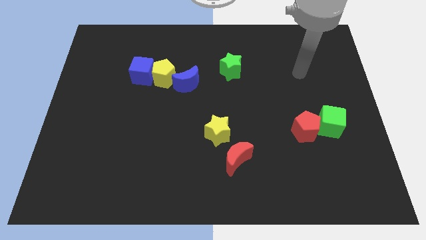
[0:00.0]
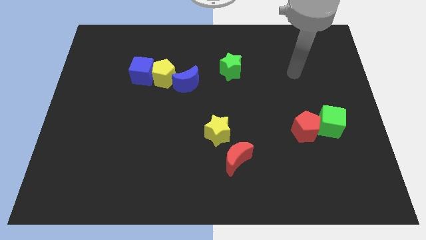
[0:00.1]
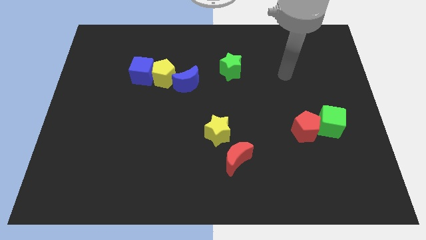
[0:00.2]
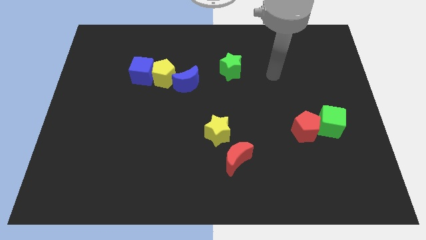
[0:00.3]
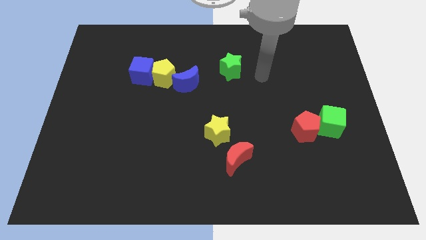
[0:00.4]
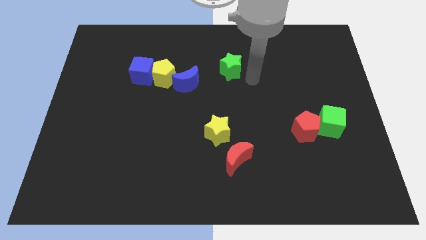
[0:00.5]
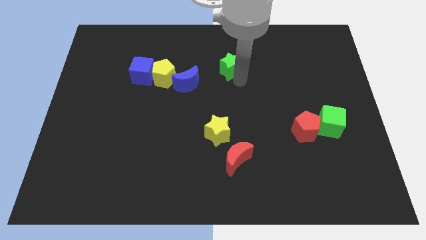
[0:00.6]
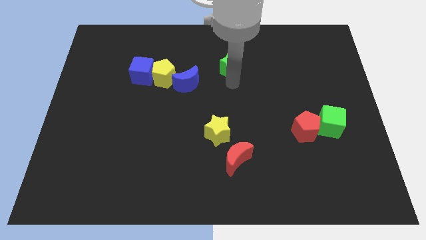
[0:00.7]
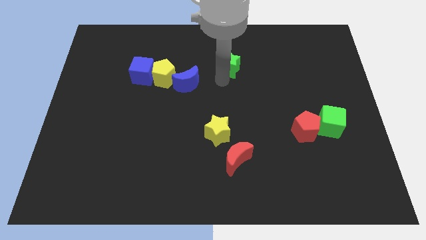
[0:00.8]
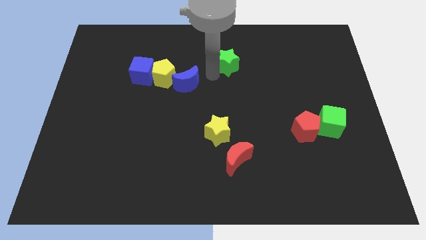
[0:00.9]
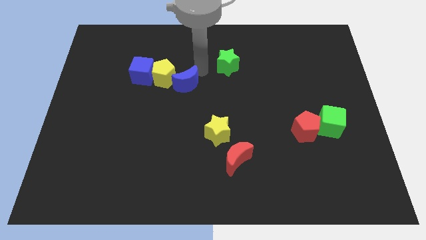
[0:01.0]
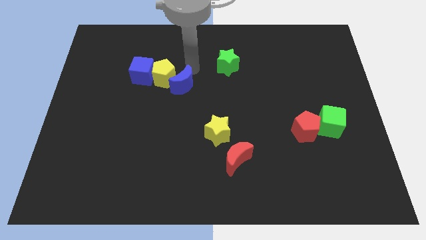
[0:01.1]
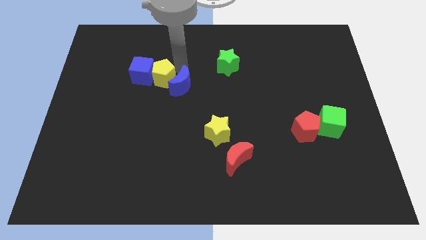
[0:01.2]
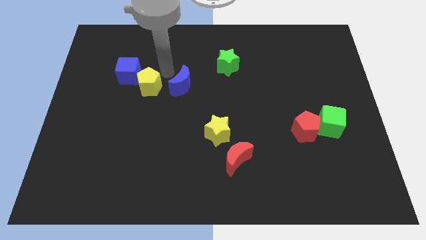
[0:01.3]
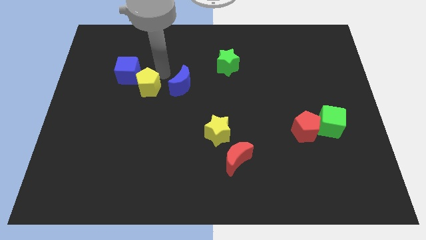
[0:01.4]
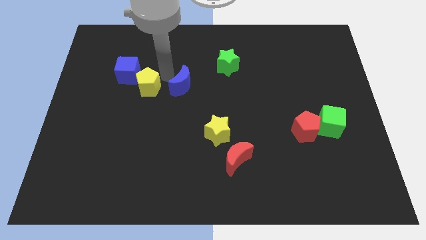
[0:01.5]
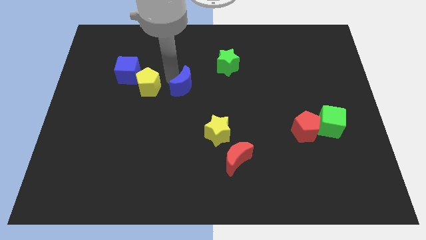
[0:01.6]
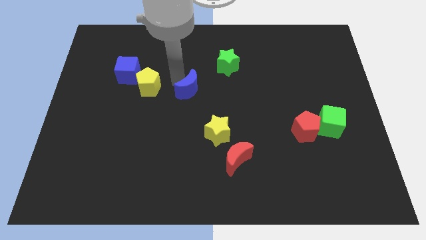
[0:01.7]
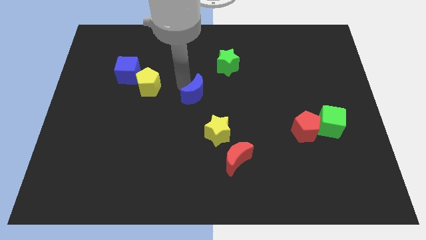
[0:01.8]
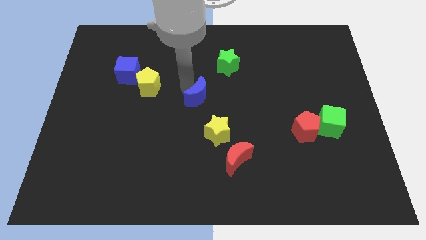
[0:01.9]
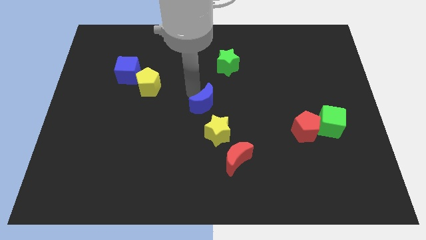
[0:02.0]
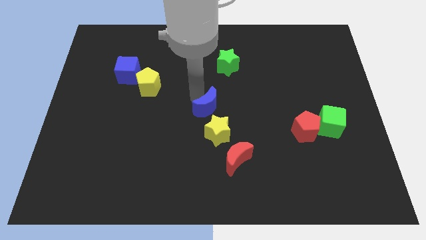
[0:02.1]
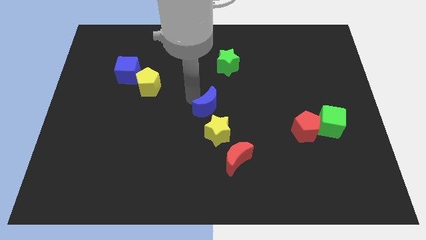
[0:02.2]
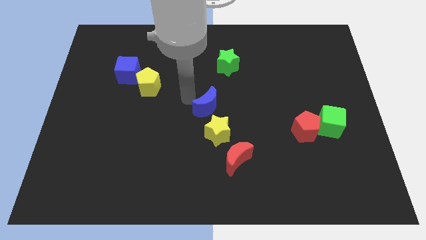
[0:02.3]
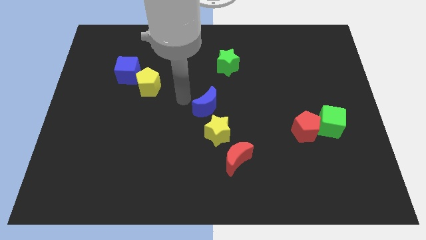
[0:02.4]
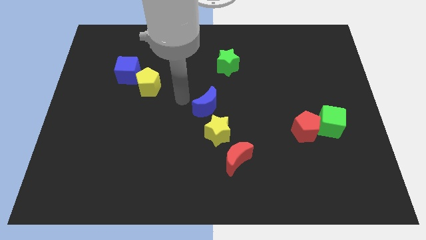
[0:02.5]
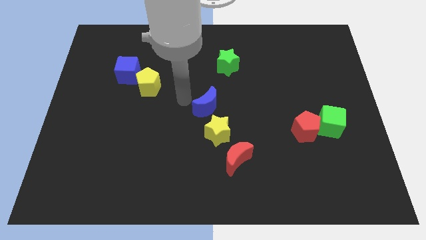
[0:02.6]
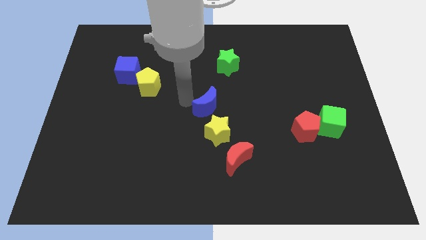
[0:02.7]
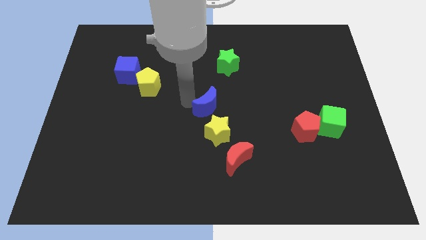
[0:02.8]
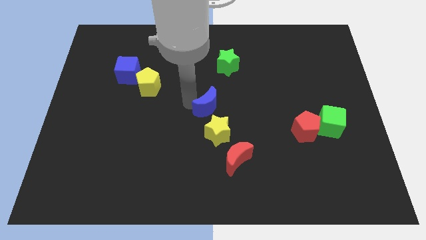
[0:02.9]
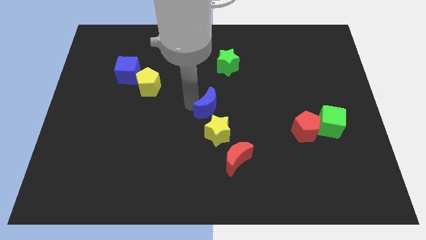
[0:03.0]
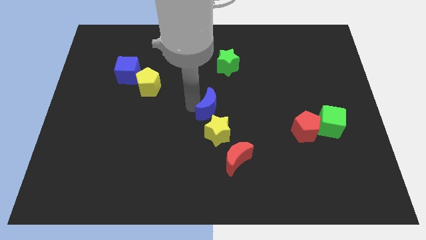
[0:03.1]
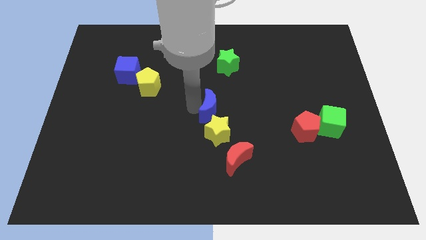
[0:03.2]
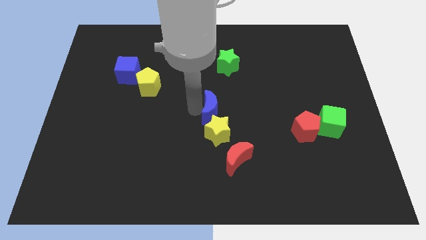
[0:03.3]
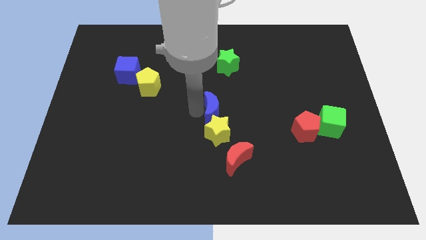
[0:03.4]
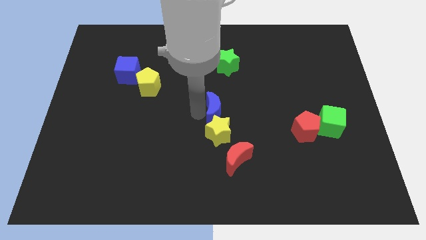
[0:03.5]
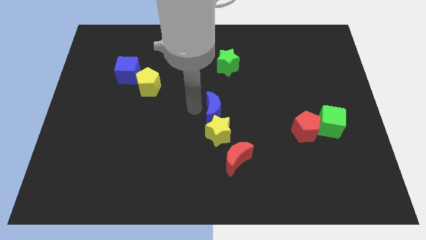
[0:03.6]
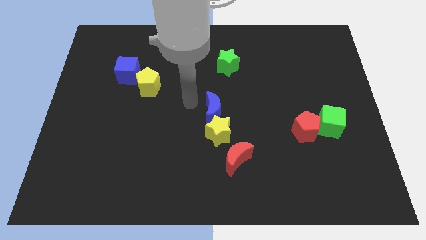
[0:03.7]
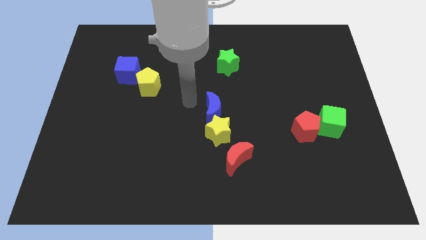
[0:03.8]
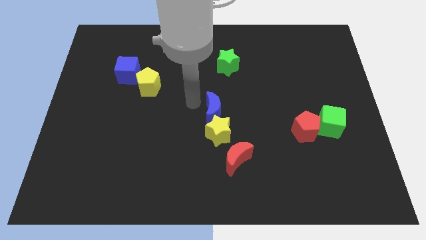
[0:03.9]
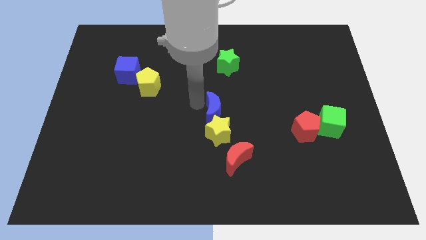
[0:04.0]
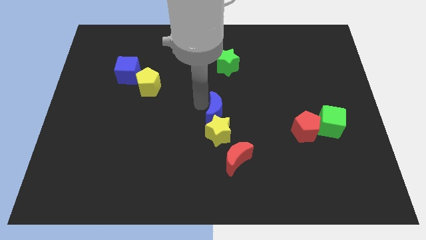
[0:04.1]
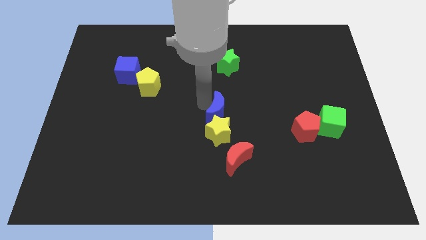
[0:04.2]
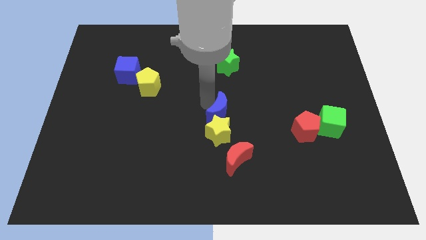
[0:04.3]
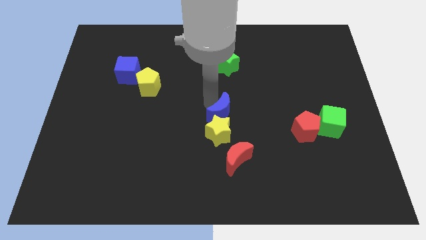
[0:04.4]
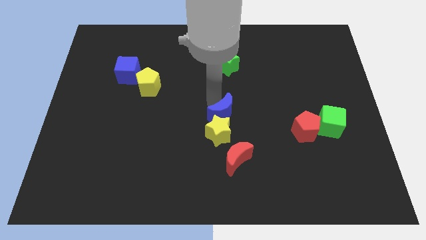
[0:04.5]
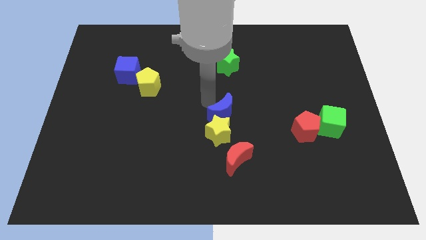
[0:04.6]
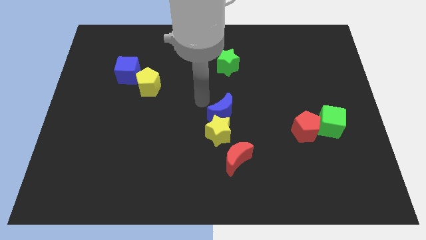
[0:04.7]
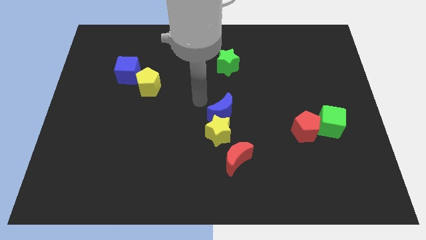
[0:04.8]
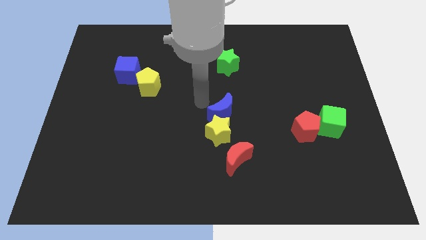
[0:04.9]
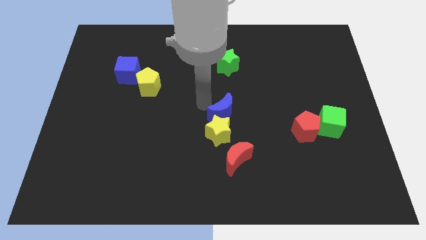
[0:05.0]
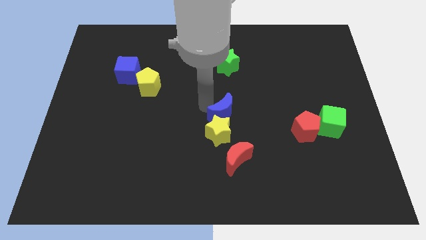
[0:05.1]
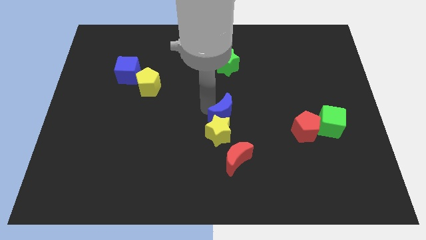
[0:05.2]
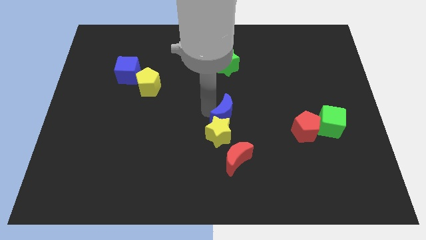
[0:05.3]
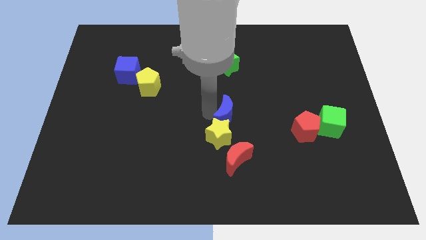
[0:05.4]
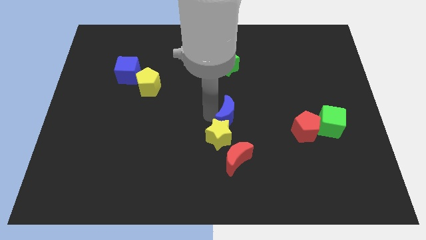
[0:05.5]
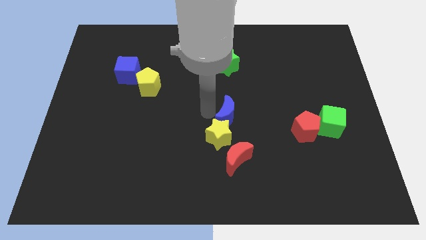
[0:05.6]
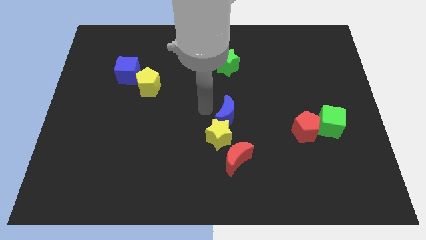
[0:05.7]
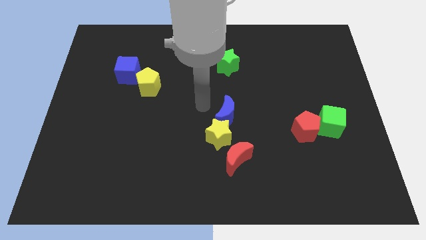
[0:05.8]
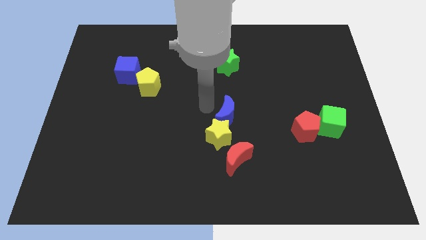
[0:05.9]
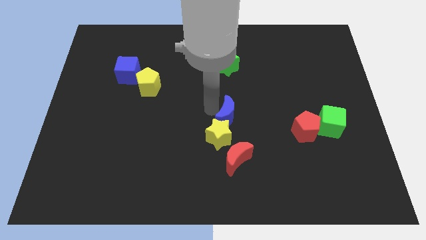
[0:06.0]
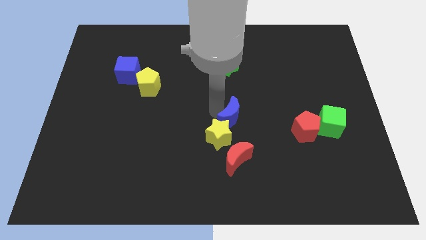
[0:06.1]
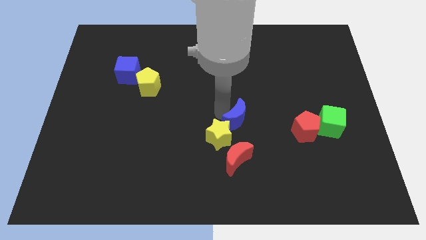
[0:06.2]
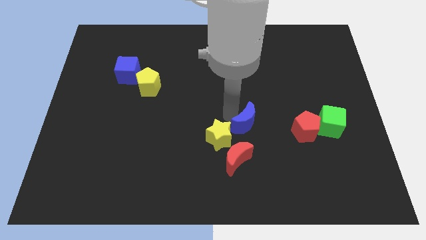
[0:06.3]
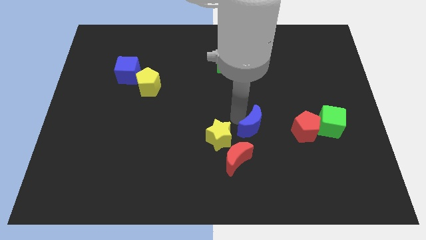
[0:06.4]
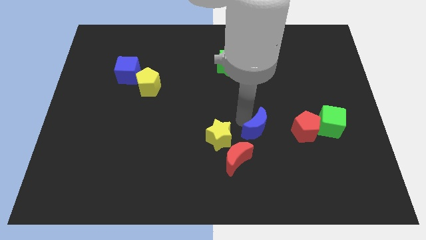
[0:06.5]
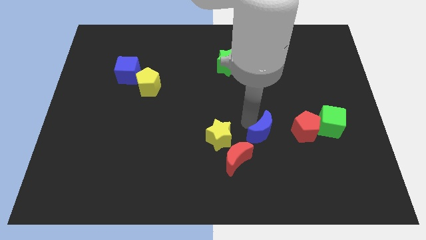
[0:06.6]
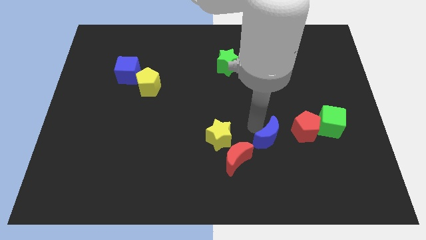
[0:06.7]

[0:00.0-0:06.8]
put the blue moon diagonally down and to the left of the red pentagon

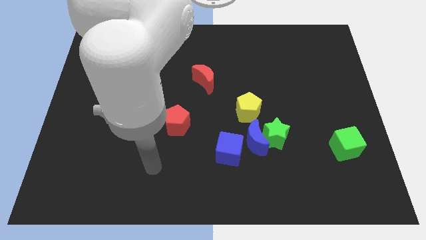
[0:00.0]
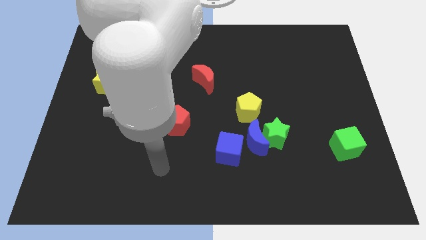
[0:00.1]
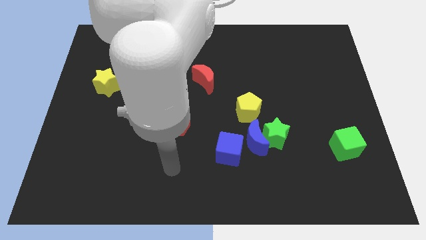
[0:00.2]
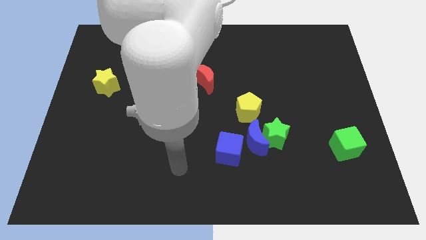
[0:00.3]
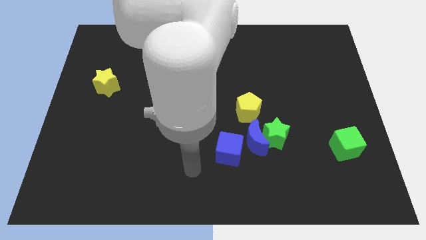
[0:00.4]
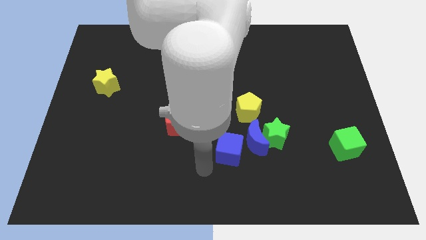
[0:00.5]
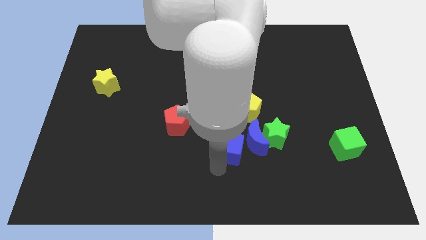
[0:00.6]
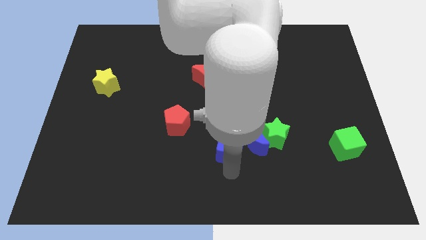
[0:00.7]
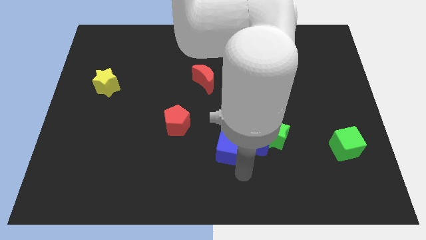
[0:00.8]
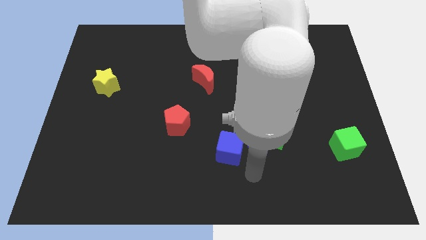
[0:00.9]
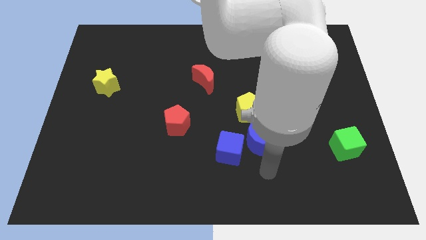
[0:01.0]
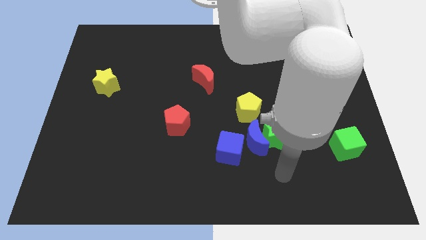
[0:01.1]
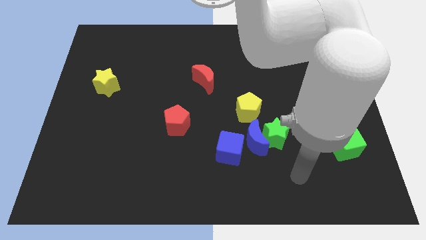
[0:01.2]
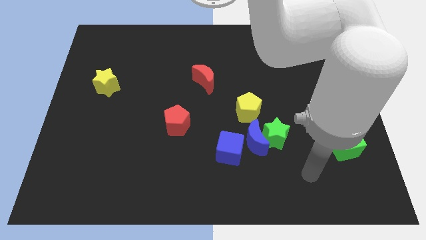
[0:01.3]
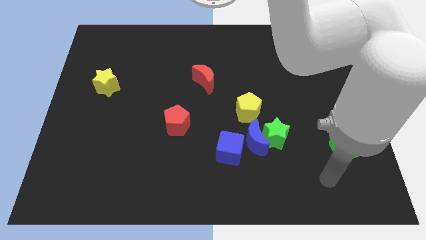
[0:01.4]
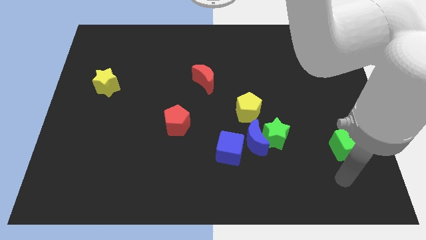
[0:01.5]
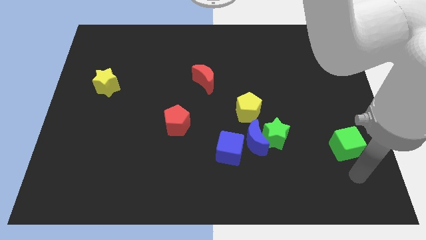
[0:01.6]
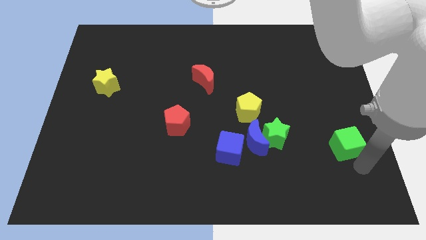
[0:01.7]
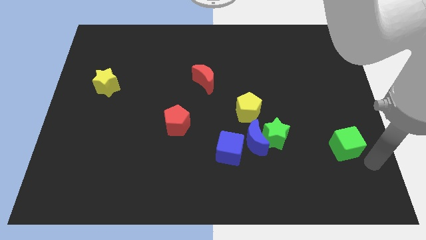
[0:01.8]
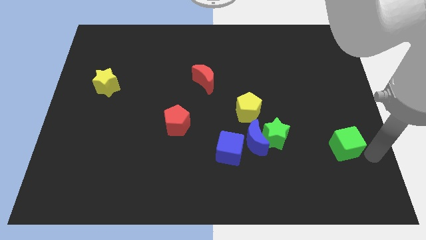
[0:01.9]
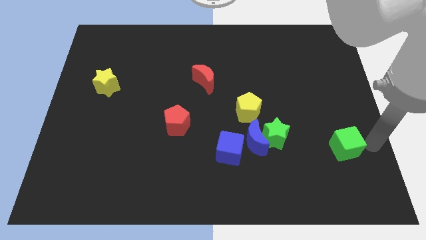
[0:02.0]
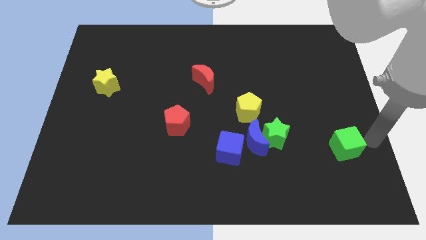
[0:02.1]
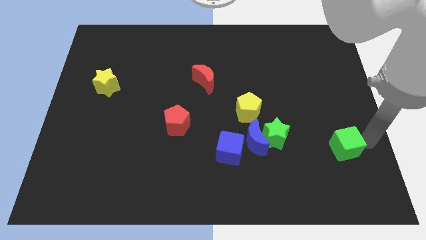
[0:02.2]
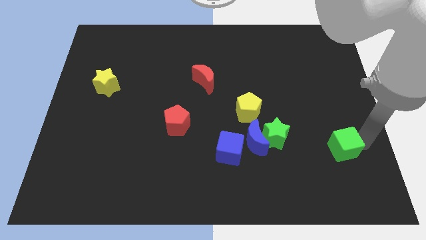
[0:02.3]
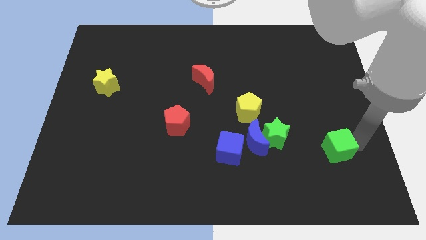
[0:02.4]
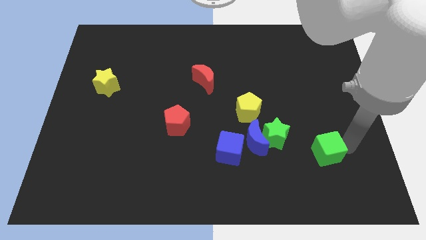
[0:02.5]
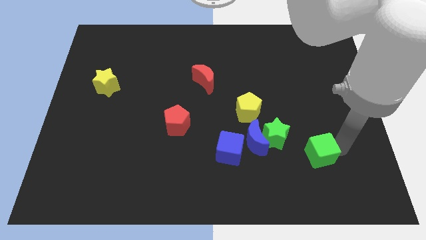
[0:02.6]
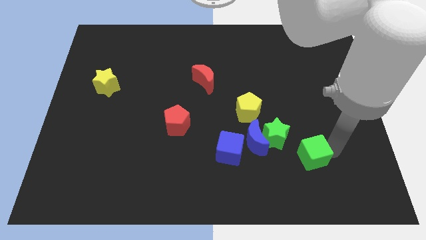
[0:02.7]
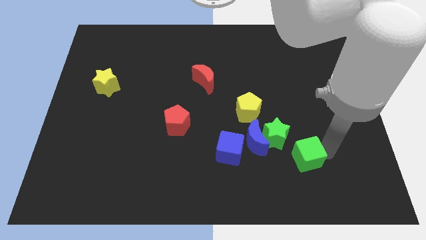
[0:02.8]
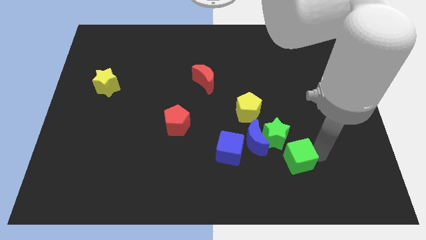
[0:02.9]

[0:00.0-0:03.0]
slide the green cube diagonally down and to the right of the blue moon
